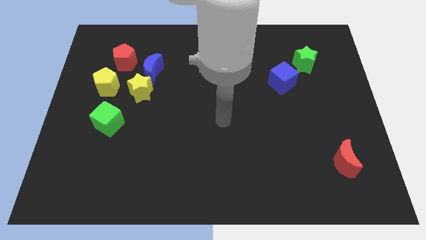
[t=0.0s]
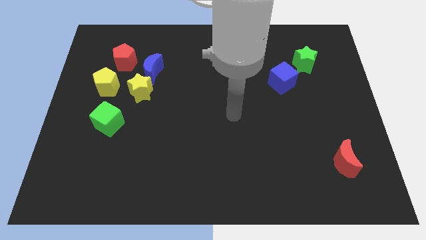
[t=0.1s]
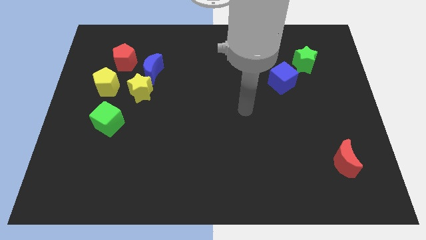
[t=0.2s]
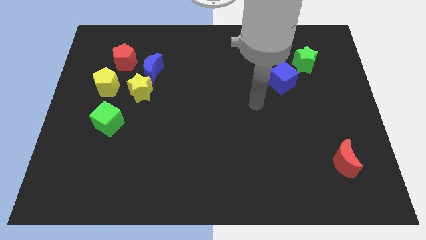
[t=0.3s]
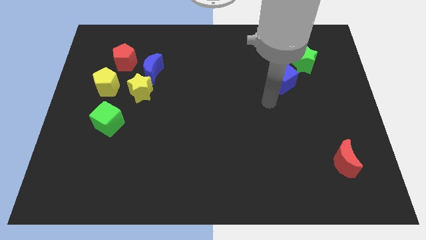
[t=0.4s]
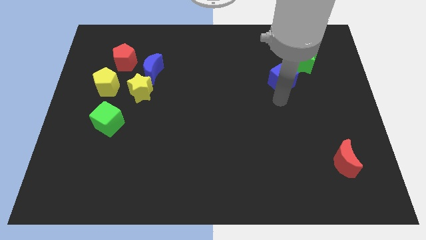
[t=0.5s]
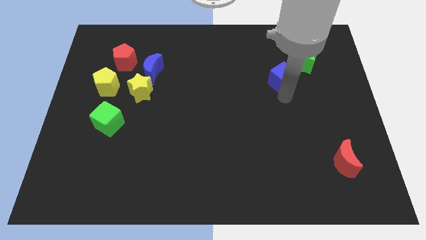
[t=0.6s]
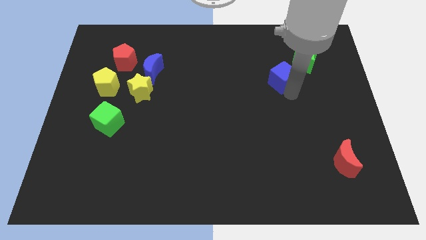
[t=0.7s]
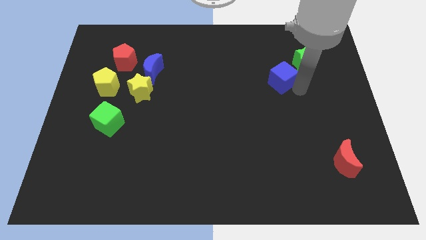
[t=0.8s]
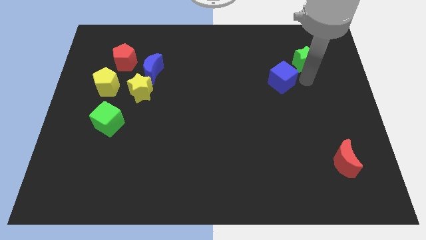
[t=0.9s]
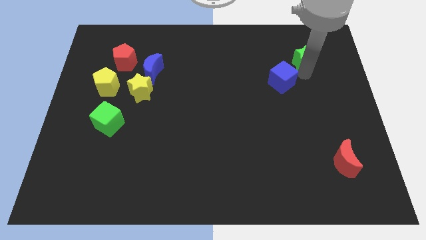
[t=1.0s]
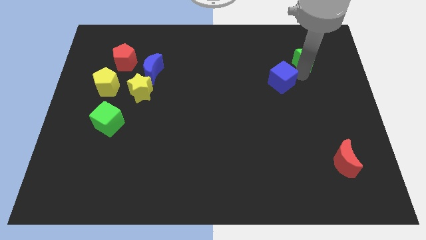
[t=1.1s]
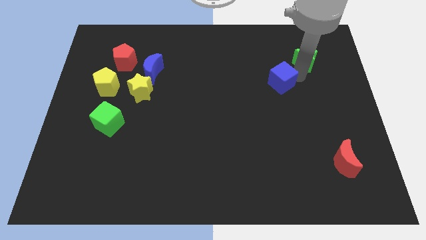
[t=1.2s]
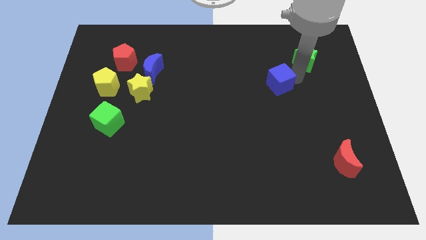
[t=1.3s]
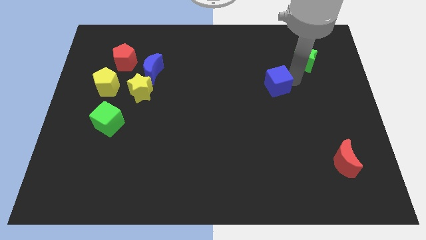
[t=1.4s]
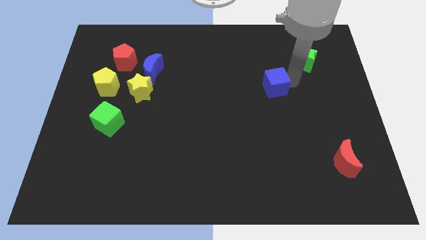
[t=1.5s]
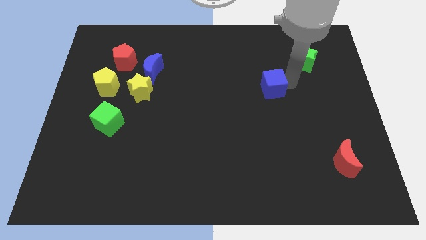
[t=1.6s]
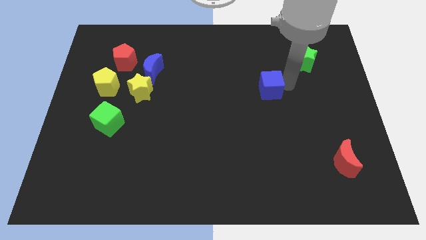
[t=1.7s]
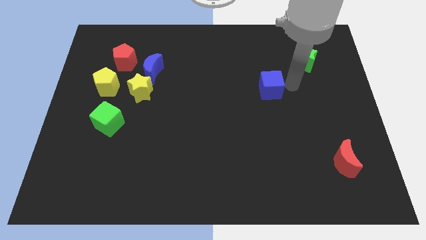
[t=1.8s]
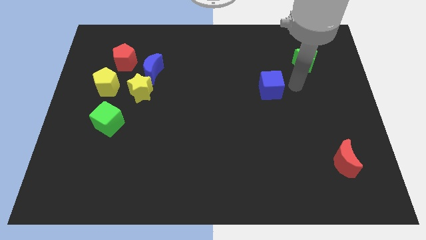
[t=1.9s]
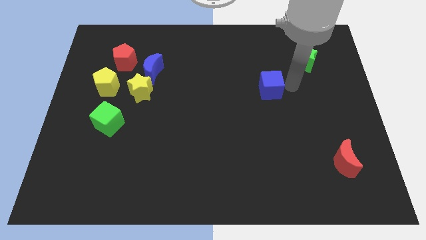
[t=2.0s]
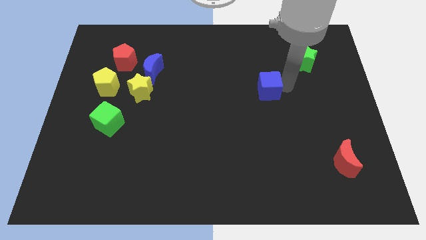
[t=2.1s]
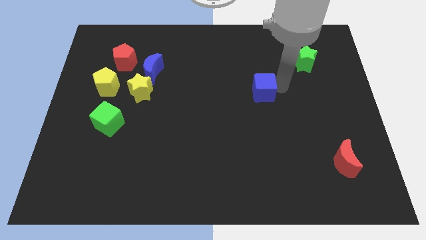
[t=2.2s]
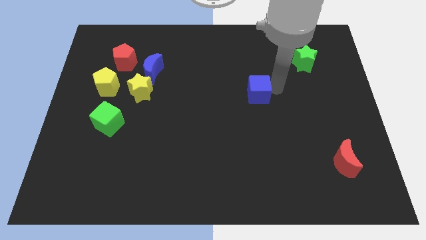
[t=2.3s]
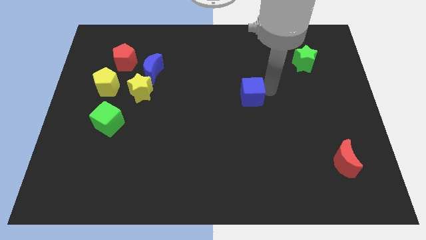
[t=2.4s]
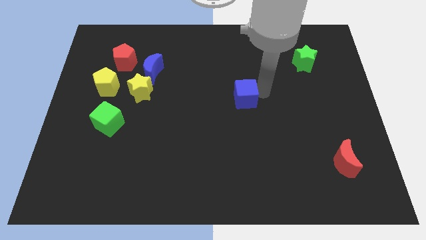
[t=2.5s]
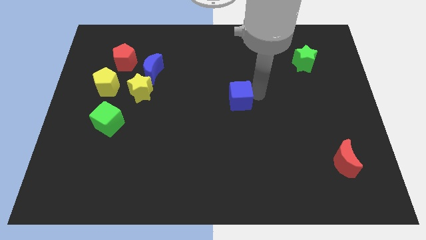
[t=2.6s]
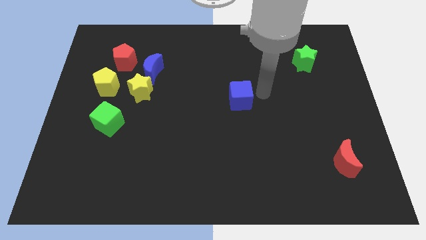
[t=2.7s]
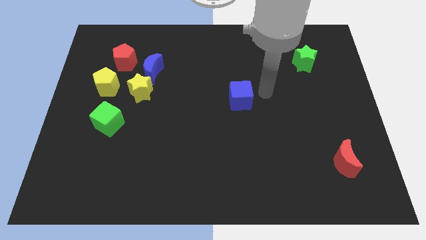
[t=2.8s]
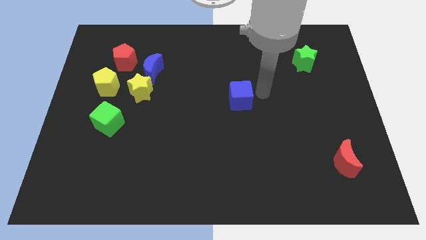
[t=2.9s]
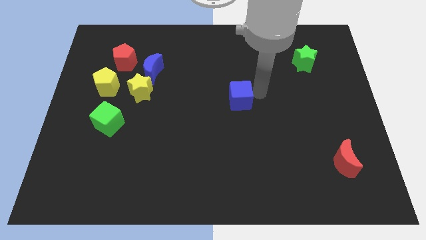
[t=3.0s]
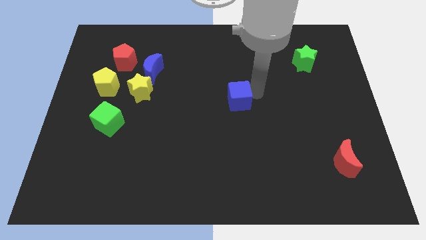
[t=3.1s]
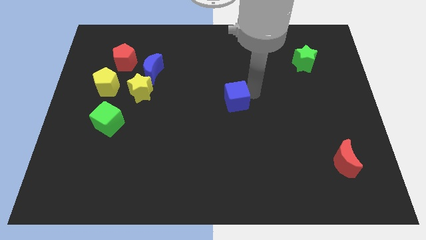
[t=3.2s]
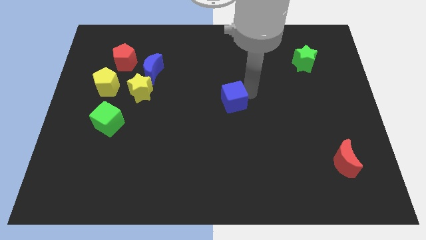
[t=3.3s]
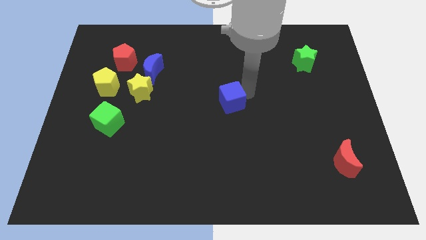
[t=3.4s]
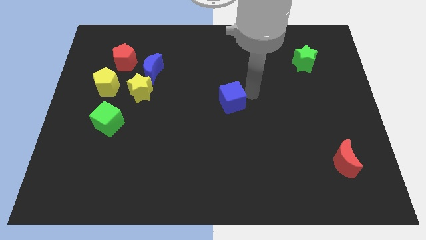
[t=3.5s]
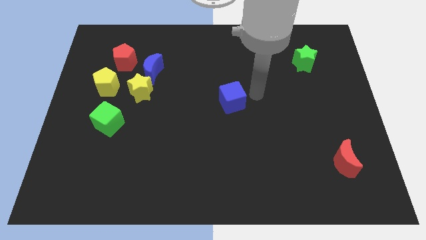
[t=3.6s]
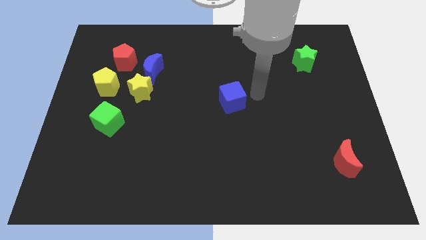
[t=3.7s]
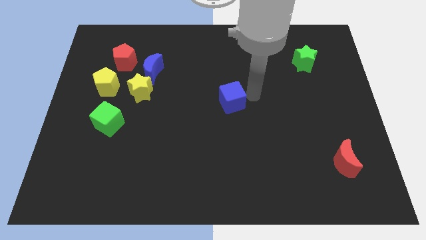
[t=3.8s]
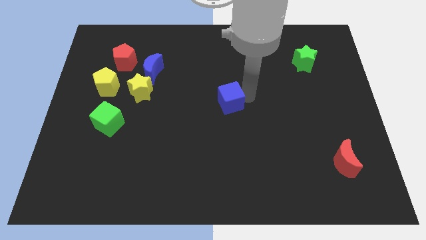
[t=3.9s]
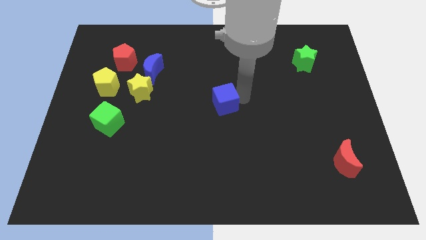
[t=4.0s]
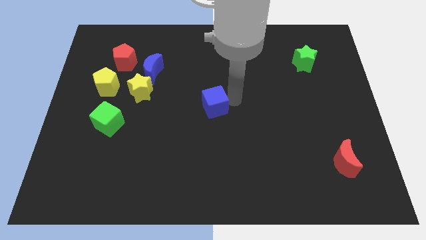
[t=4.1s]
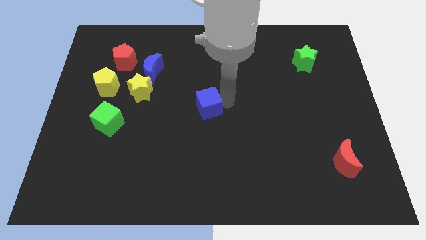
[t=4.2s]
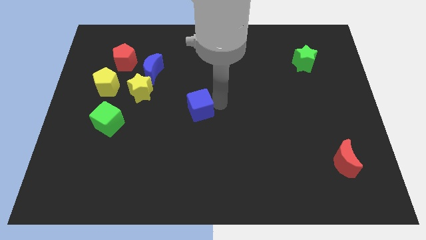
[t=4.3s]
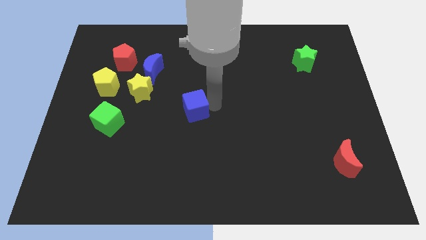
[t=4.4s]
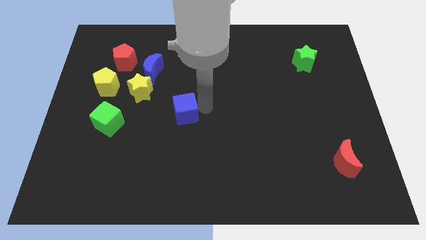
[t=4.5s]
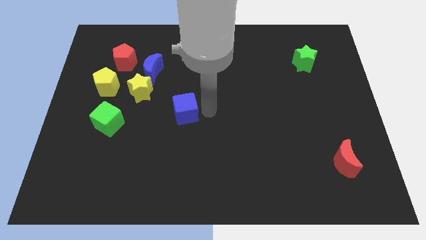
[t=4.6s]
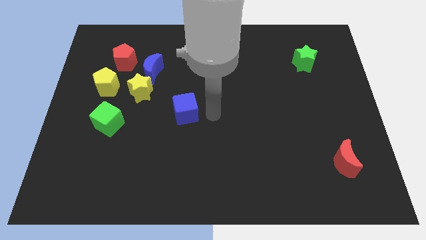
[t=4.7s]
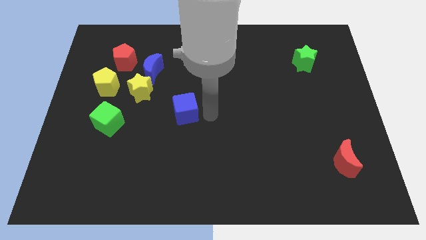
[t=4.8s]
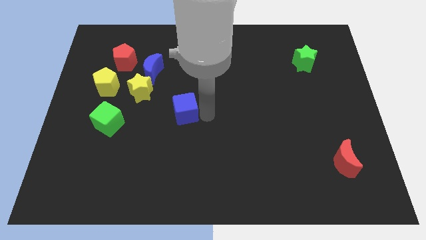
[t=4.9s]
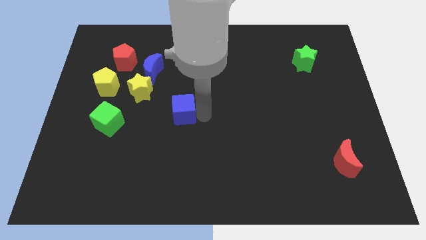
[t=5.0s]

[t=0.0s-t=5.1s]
slide the blue cube diagonally down and to the right of the yellow star

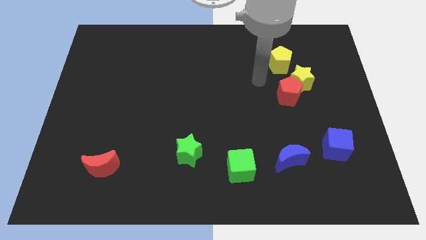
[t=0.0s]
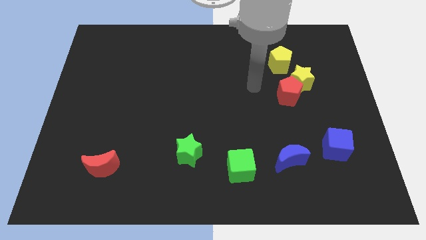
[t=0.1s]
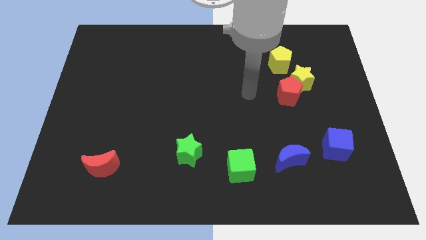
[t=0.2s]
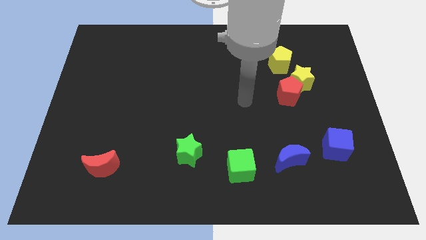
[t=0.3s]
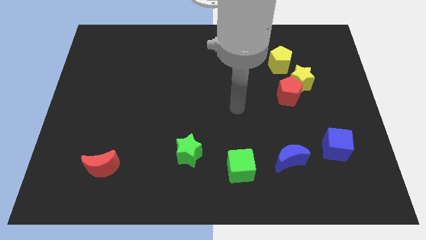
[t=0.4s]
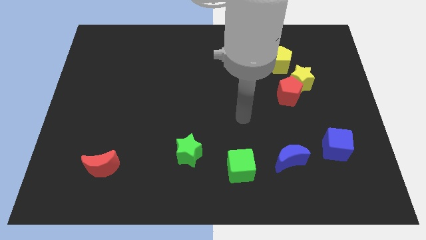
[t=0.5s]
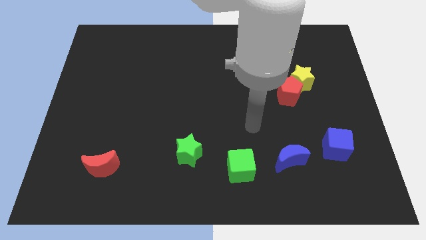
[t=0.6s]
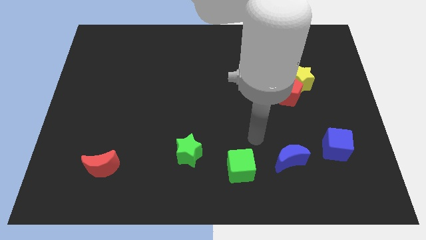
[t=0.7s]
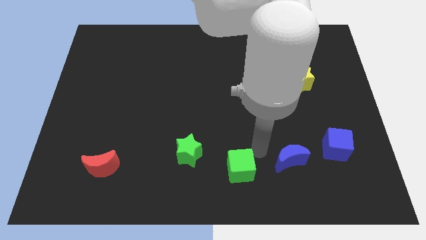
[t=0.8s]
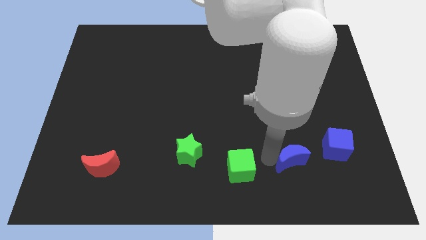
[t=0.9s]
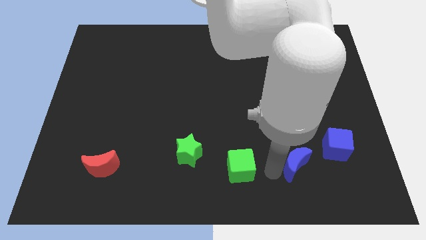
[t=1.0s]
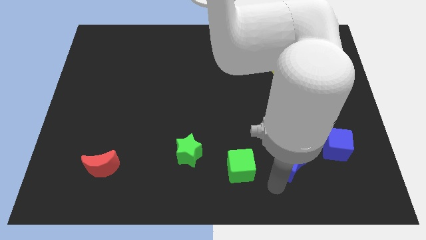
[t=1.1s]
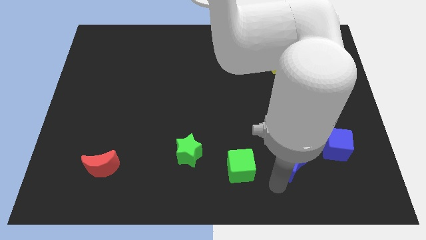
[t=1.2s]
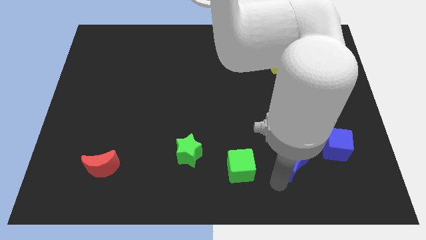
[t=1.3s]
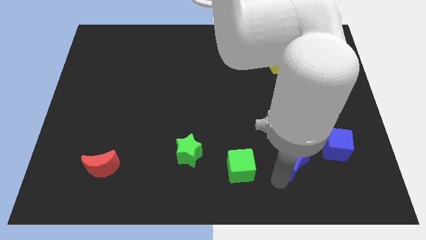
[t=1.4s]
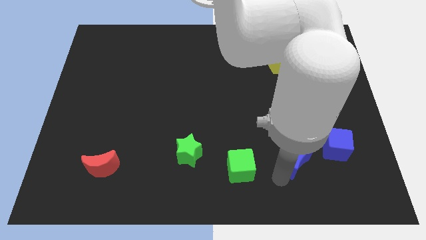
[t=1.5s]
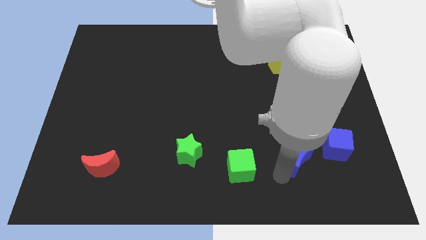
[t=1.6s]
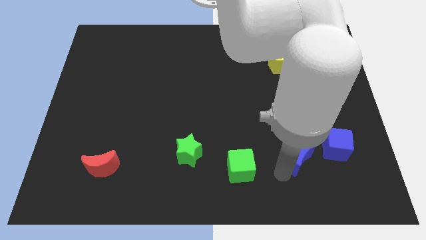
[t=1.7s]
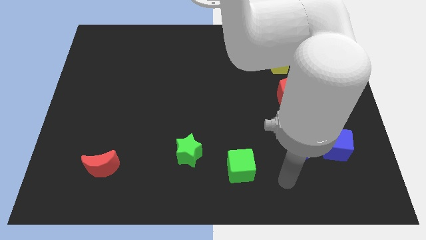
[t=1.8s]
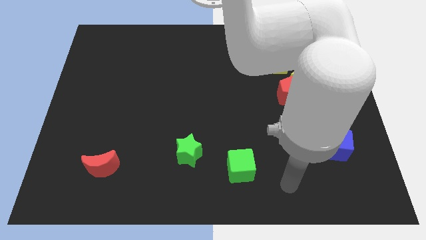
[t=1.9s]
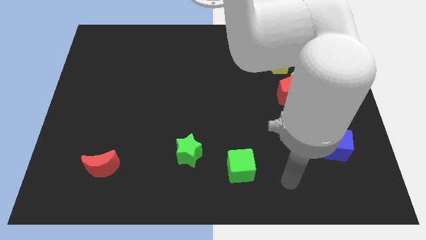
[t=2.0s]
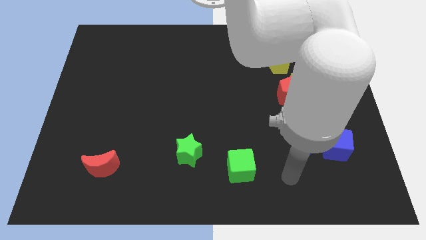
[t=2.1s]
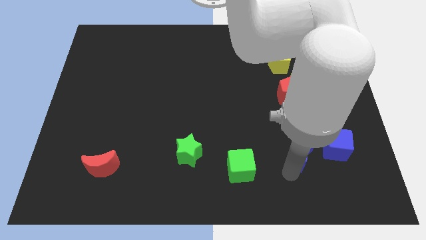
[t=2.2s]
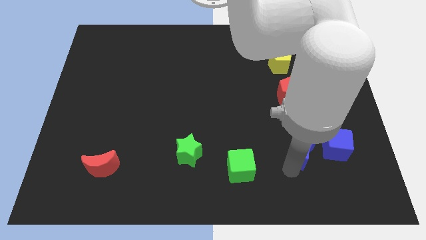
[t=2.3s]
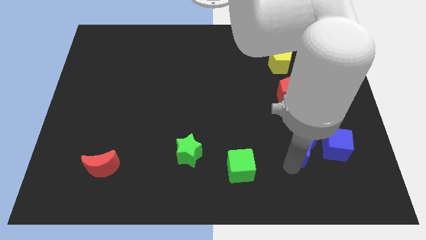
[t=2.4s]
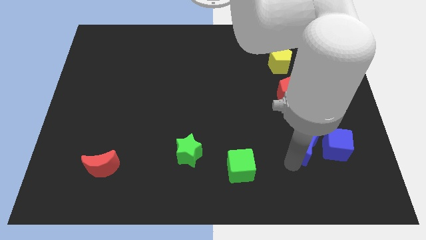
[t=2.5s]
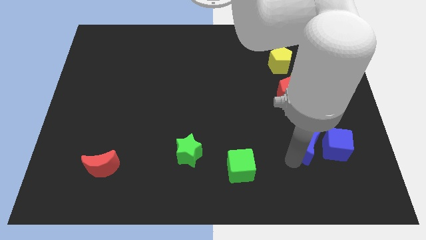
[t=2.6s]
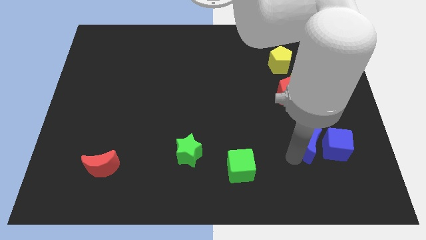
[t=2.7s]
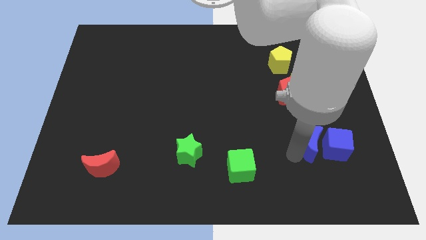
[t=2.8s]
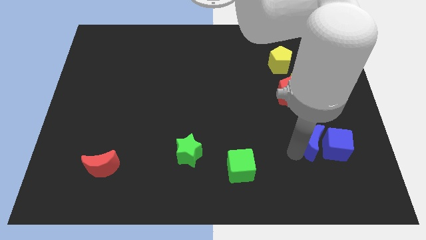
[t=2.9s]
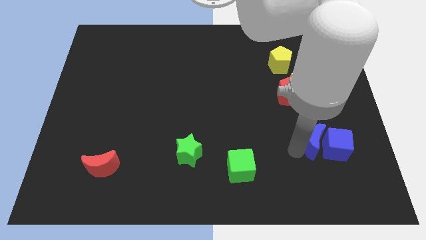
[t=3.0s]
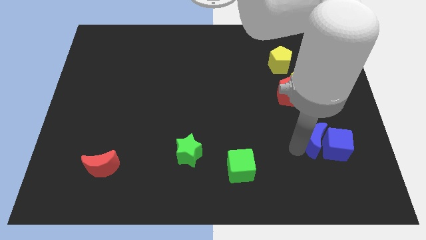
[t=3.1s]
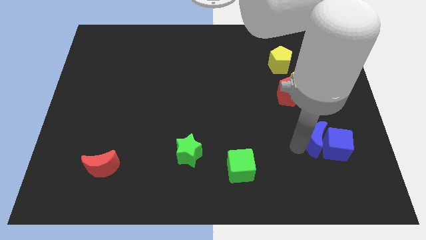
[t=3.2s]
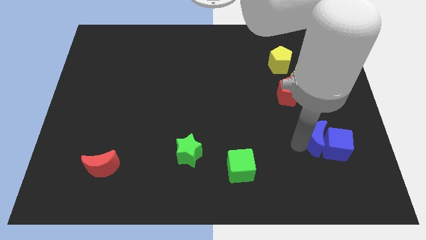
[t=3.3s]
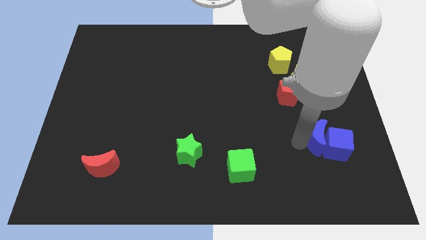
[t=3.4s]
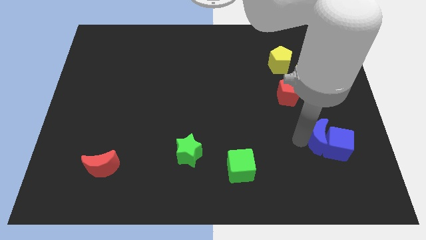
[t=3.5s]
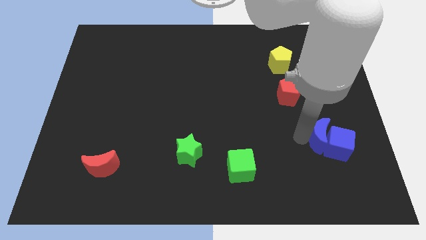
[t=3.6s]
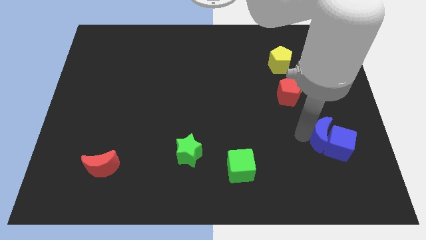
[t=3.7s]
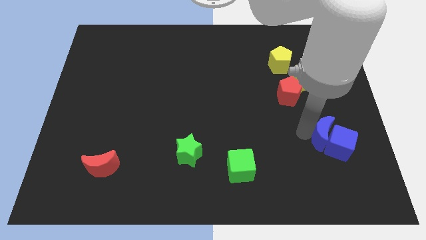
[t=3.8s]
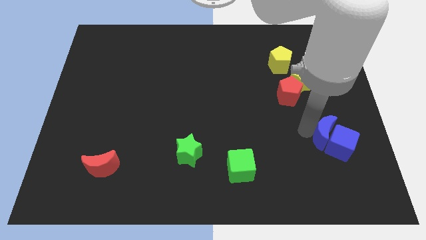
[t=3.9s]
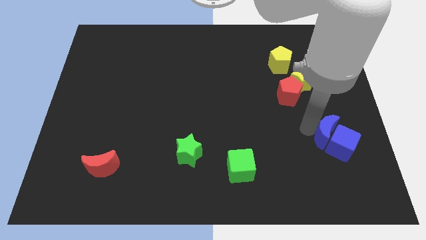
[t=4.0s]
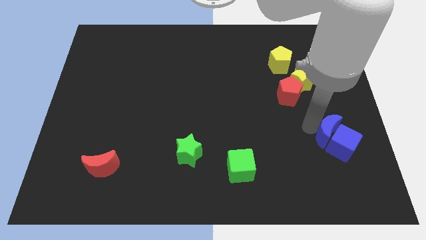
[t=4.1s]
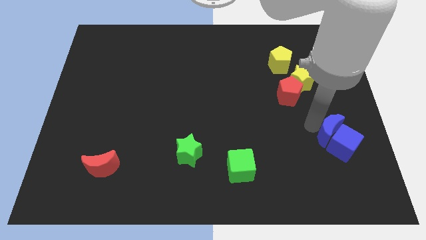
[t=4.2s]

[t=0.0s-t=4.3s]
put the blue moon diagonally down and to the right of the red pentagon
